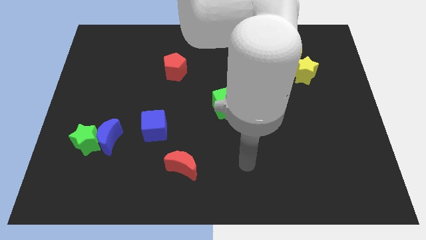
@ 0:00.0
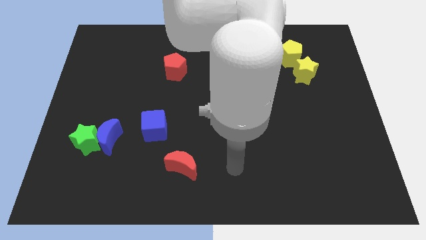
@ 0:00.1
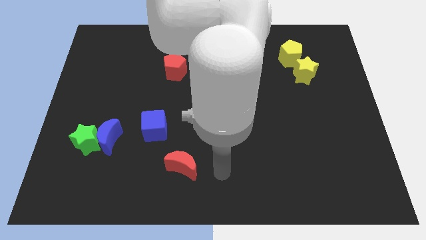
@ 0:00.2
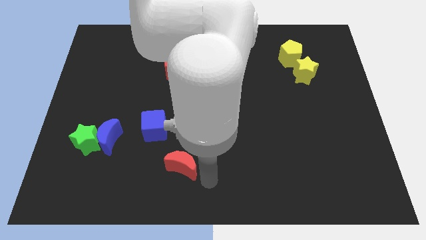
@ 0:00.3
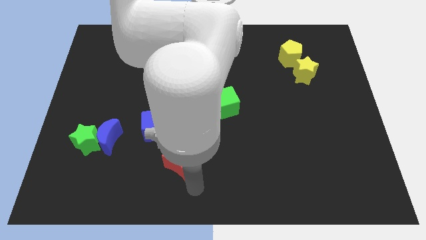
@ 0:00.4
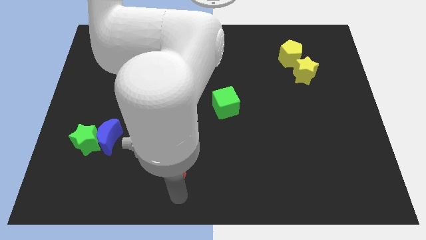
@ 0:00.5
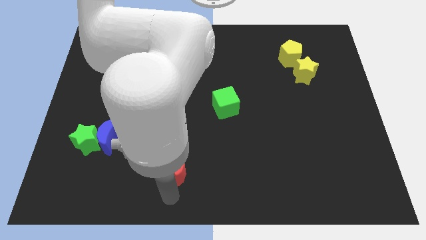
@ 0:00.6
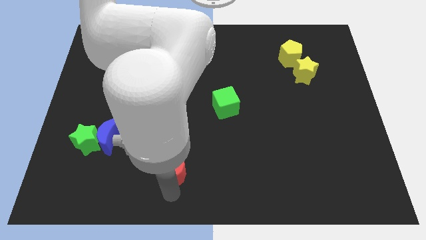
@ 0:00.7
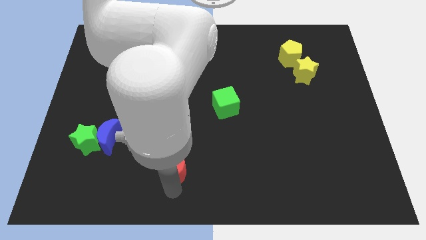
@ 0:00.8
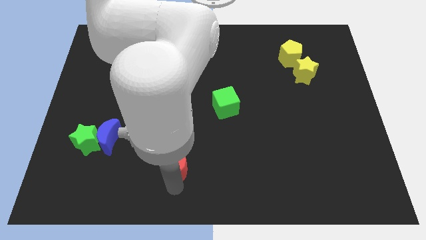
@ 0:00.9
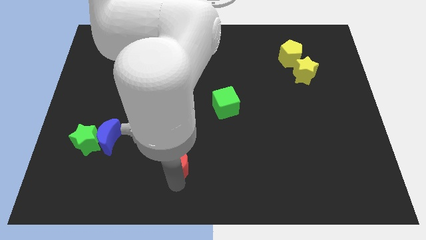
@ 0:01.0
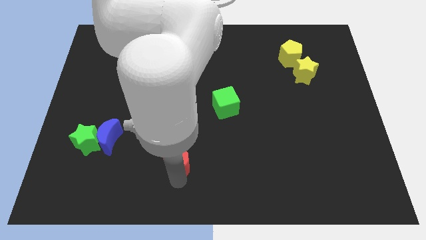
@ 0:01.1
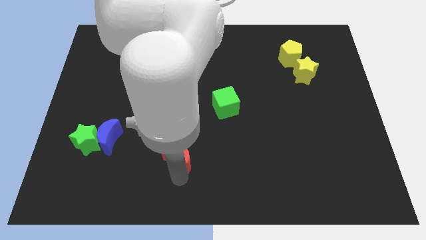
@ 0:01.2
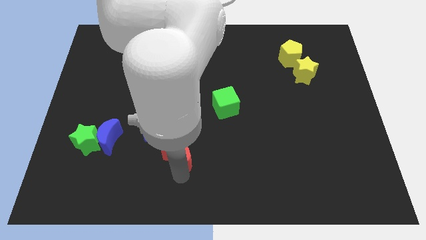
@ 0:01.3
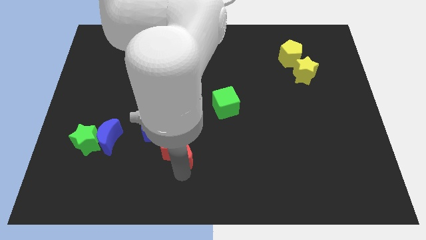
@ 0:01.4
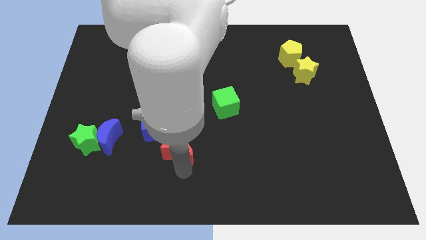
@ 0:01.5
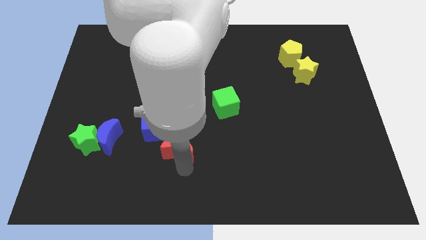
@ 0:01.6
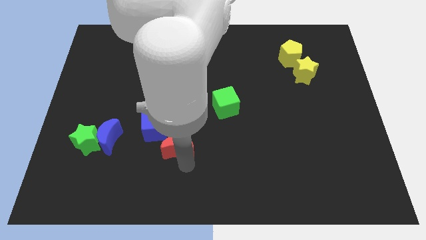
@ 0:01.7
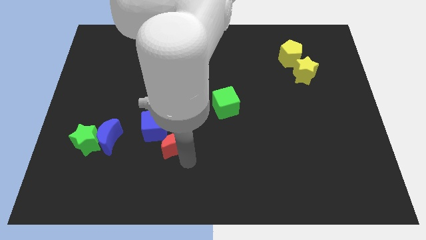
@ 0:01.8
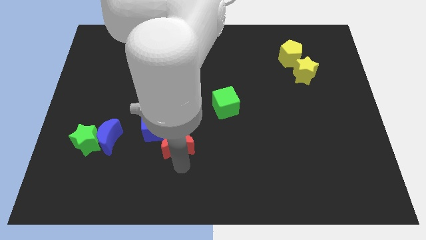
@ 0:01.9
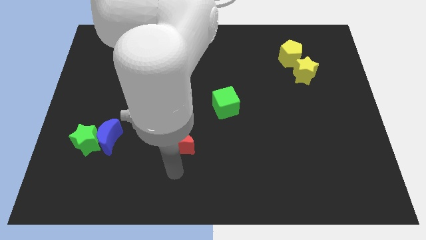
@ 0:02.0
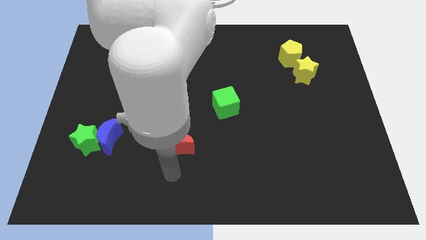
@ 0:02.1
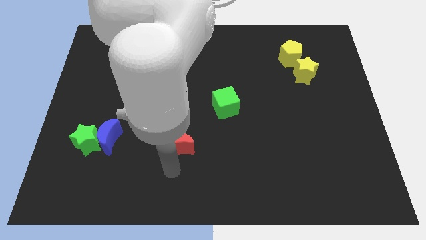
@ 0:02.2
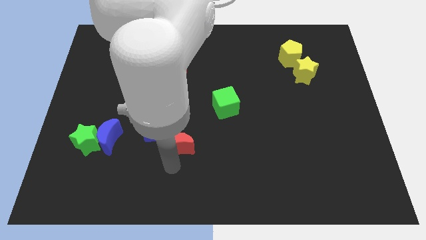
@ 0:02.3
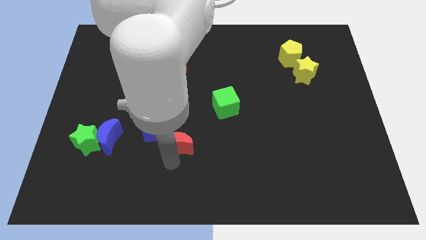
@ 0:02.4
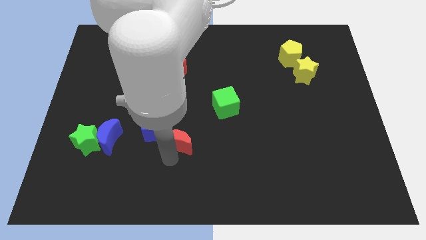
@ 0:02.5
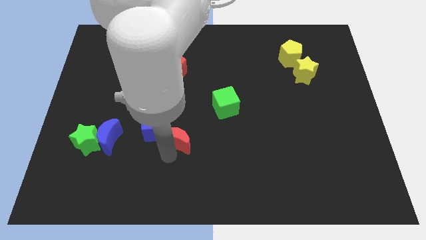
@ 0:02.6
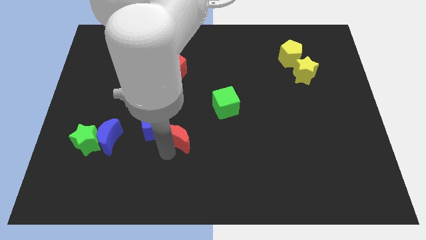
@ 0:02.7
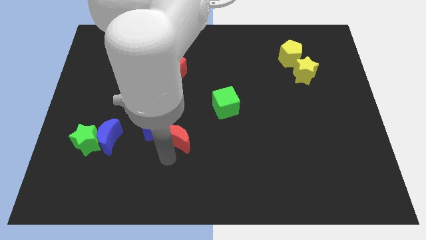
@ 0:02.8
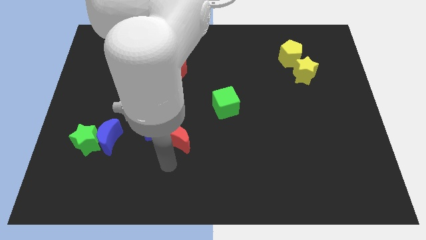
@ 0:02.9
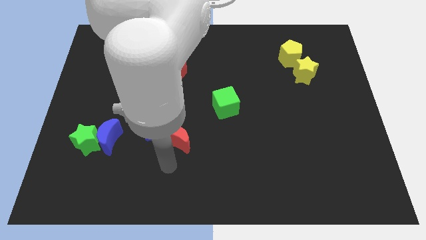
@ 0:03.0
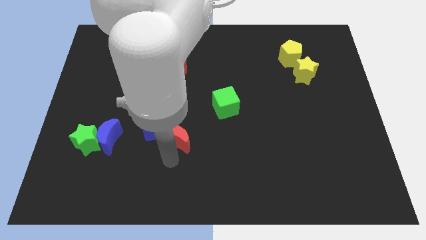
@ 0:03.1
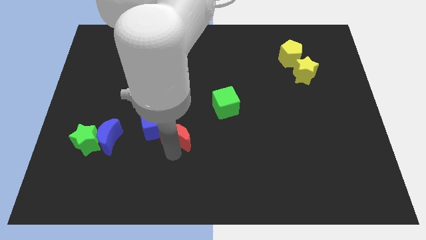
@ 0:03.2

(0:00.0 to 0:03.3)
slightly push the red moon up

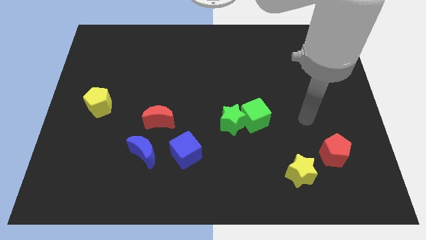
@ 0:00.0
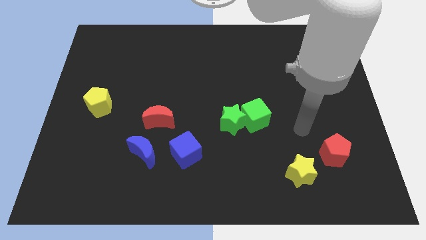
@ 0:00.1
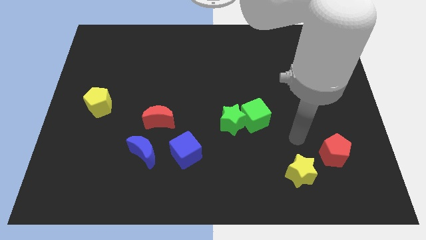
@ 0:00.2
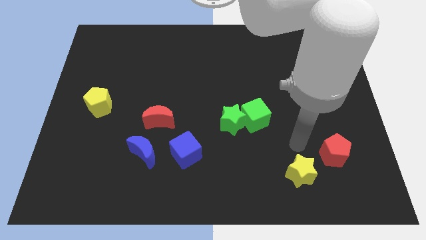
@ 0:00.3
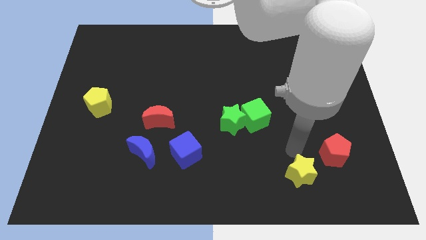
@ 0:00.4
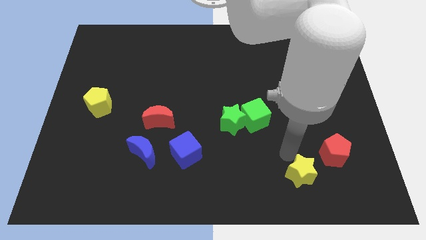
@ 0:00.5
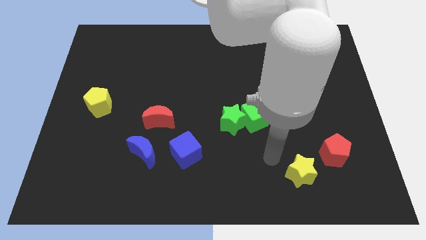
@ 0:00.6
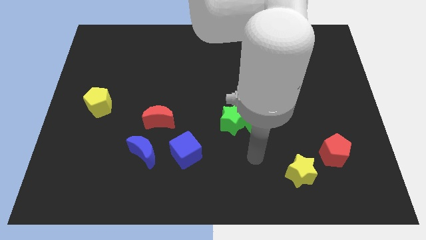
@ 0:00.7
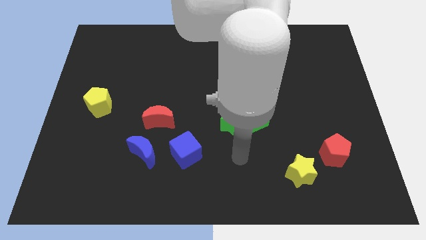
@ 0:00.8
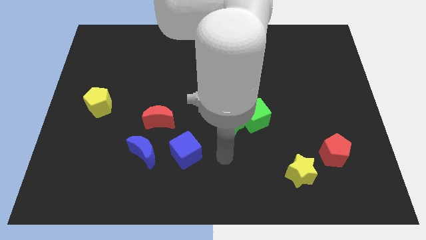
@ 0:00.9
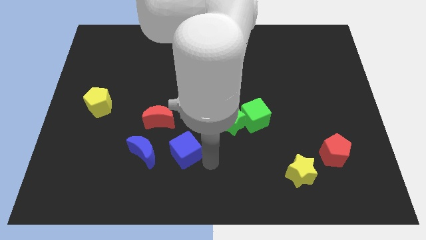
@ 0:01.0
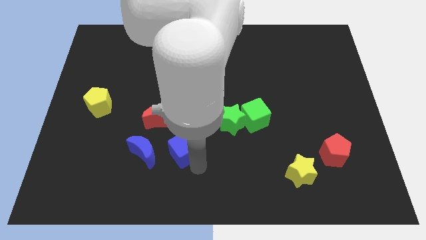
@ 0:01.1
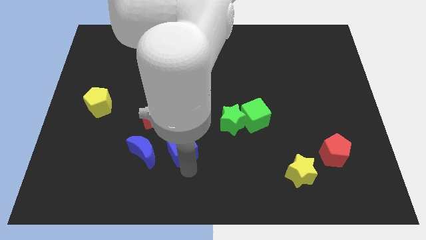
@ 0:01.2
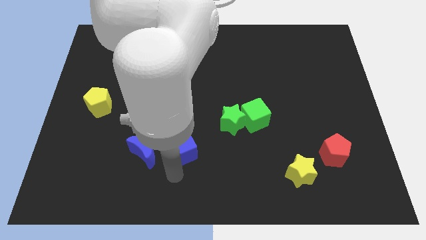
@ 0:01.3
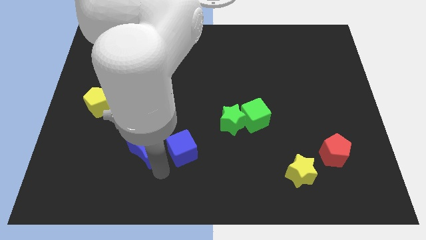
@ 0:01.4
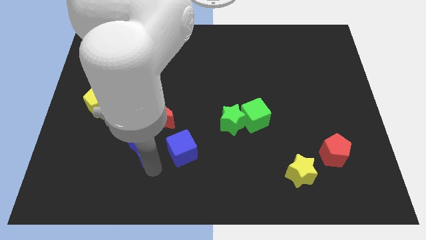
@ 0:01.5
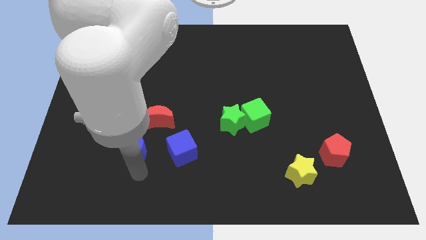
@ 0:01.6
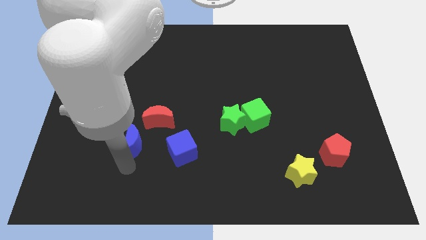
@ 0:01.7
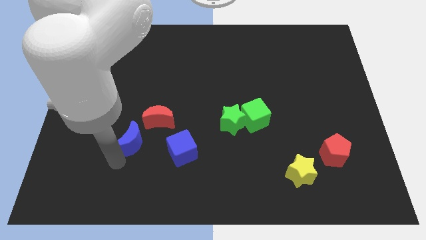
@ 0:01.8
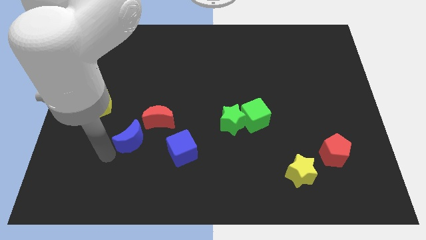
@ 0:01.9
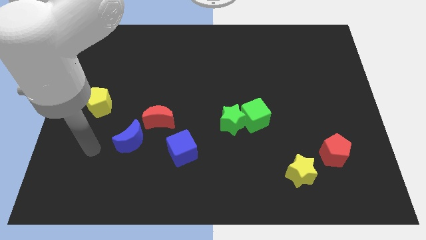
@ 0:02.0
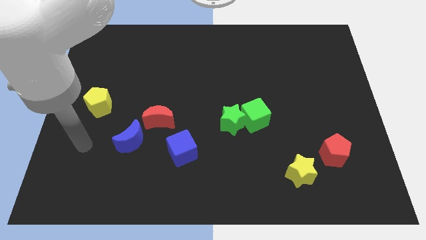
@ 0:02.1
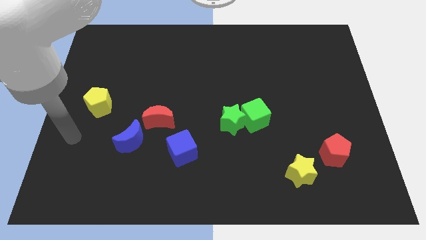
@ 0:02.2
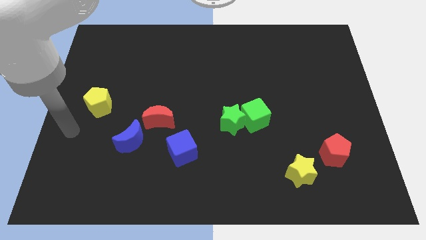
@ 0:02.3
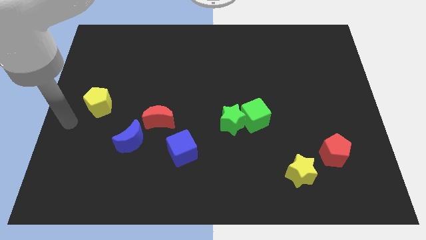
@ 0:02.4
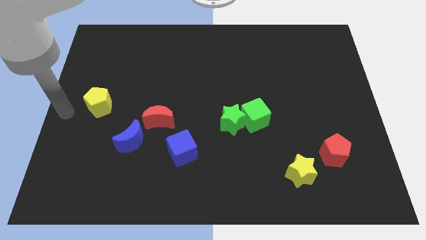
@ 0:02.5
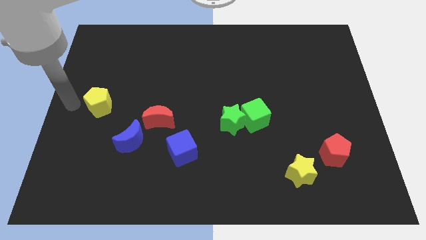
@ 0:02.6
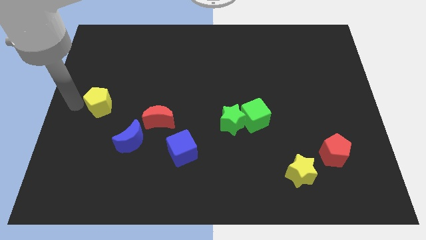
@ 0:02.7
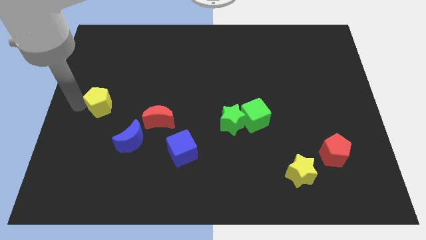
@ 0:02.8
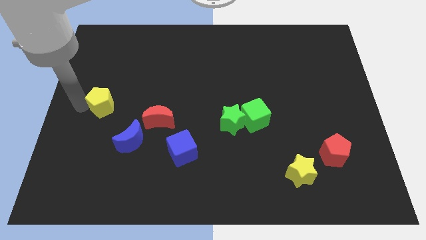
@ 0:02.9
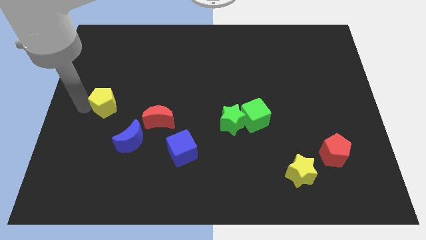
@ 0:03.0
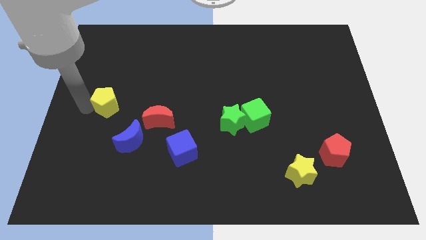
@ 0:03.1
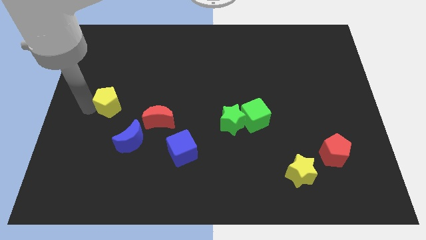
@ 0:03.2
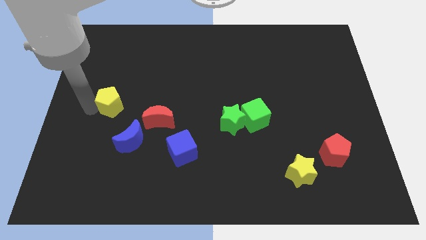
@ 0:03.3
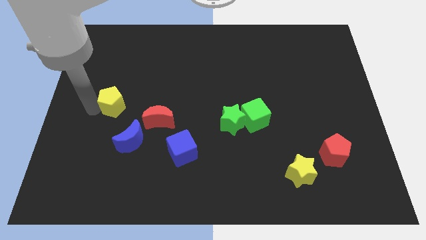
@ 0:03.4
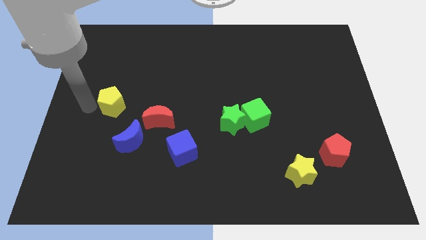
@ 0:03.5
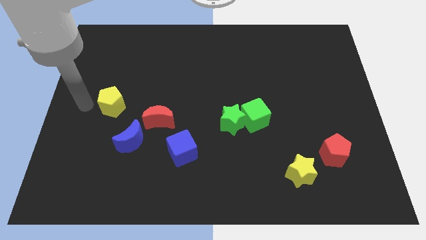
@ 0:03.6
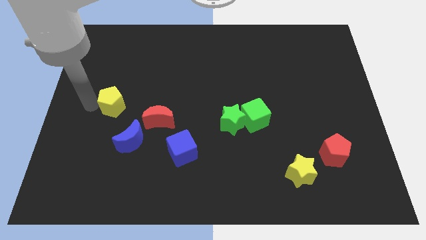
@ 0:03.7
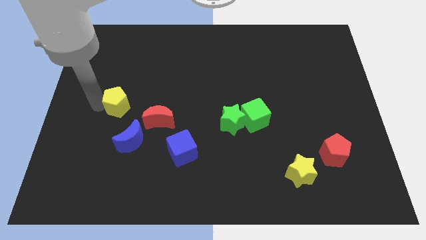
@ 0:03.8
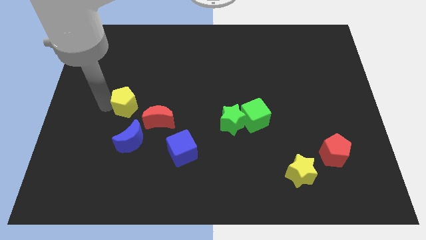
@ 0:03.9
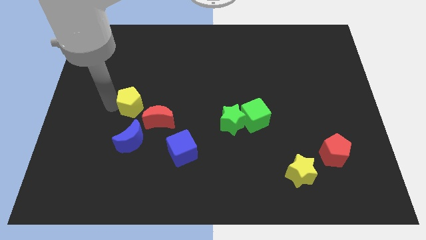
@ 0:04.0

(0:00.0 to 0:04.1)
push the yellow pentagon to the right a little

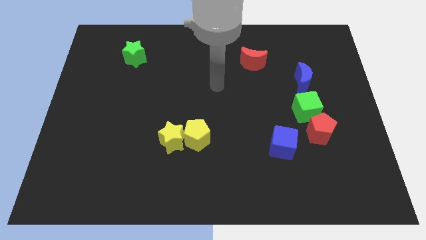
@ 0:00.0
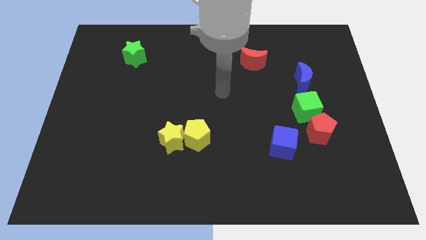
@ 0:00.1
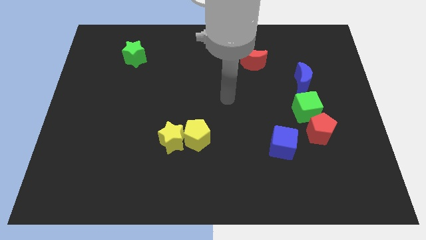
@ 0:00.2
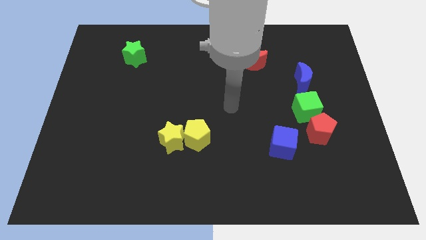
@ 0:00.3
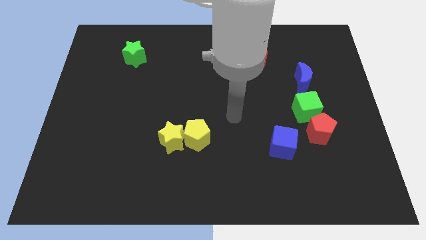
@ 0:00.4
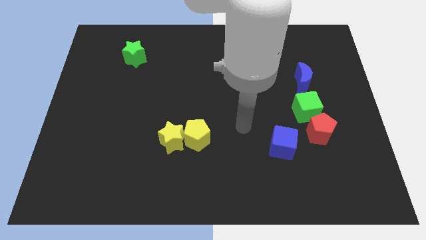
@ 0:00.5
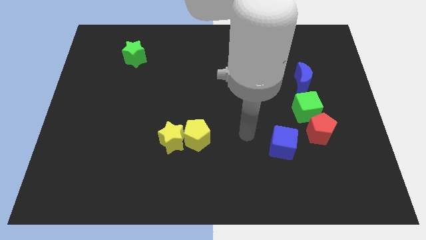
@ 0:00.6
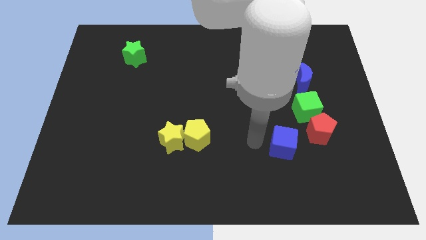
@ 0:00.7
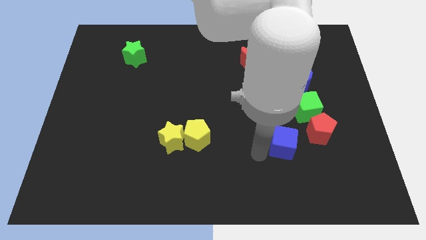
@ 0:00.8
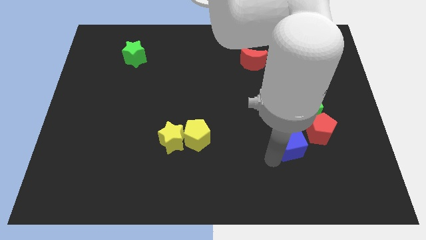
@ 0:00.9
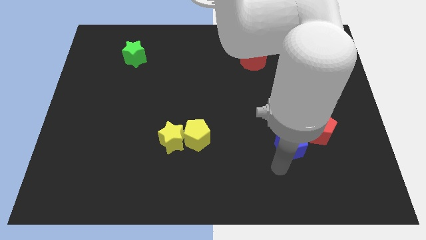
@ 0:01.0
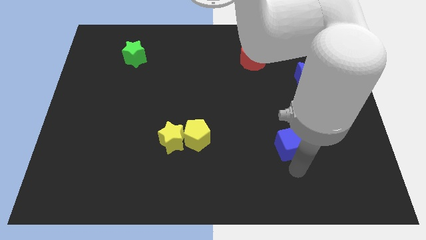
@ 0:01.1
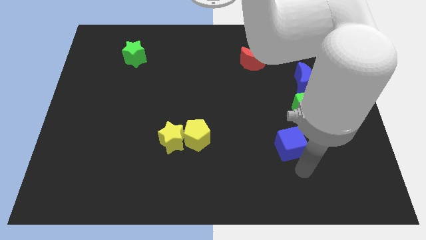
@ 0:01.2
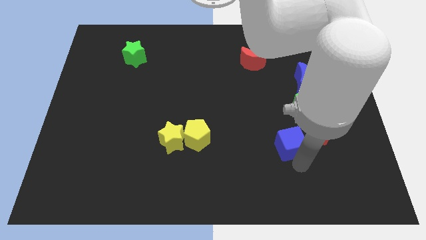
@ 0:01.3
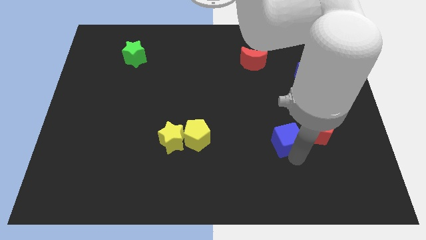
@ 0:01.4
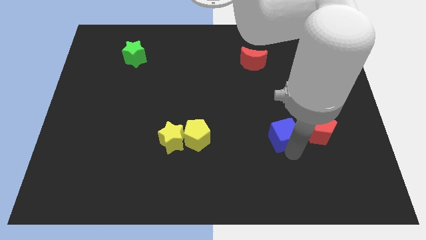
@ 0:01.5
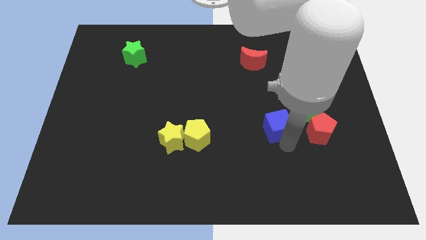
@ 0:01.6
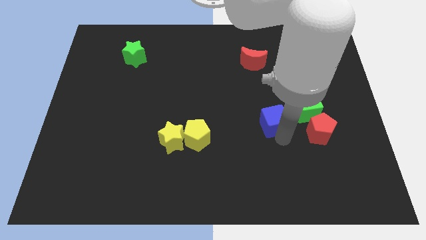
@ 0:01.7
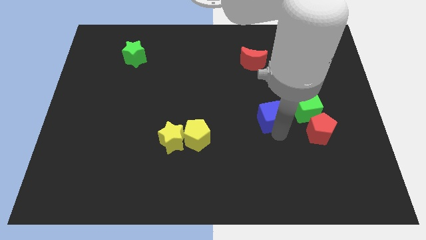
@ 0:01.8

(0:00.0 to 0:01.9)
slide the blue cube a bit up
